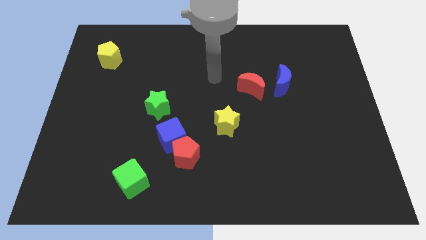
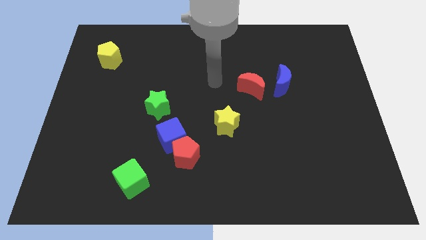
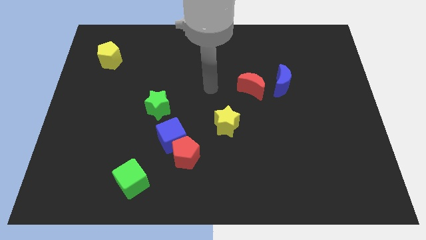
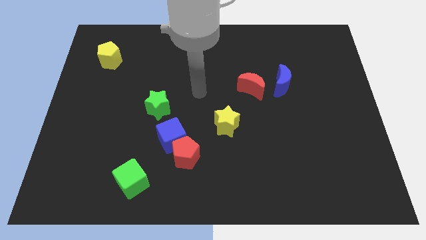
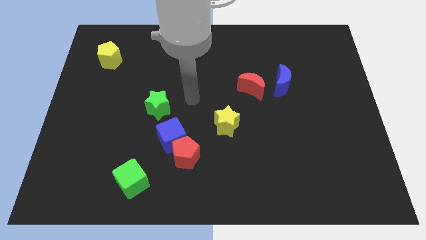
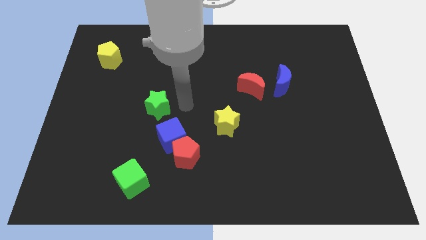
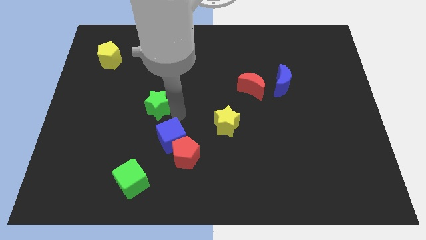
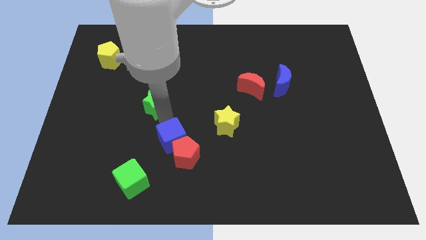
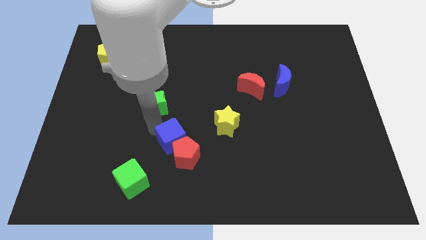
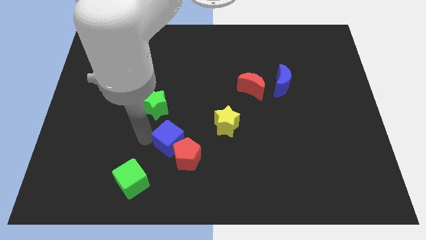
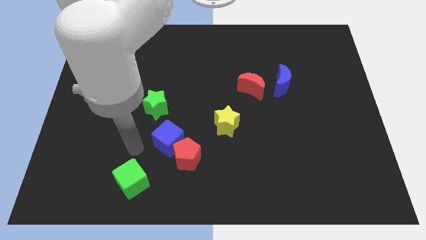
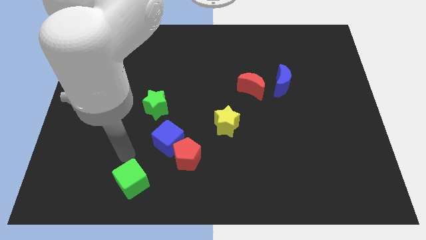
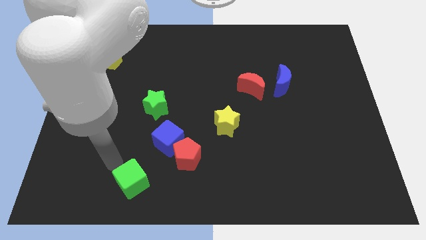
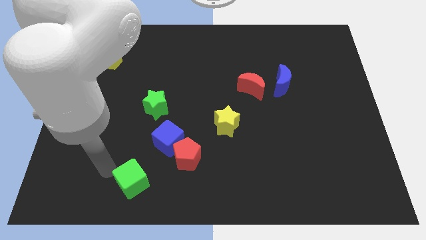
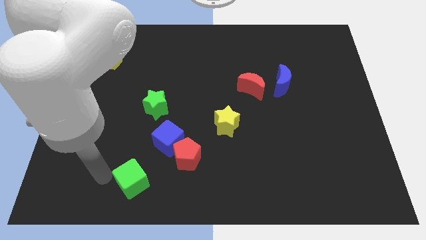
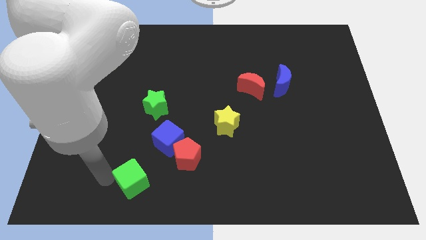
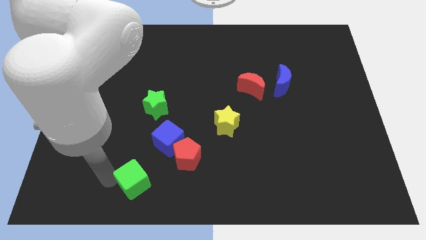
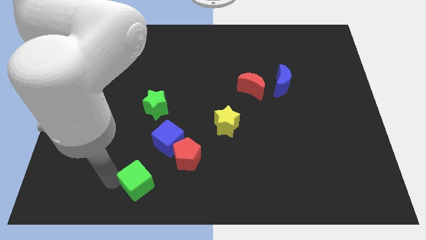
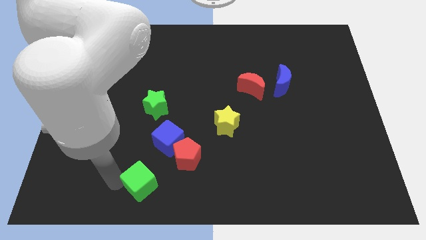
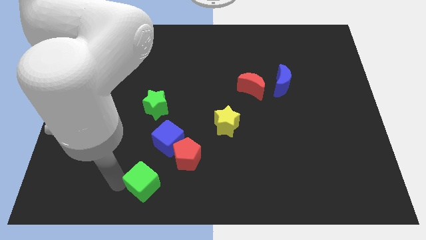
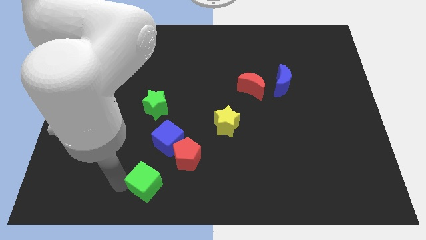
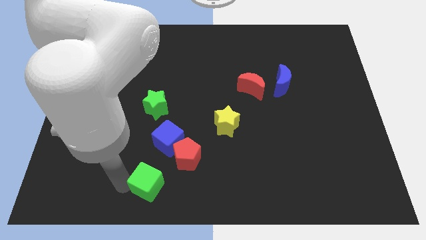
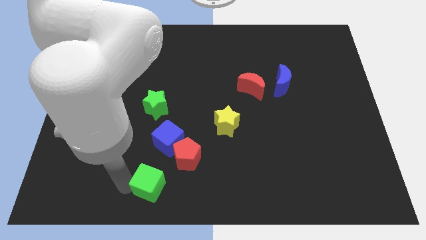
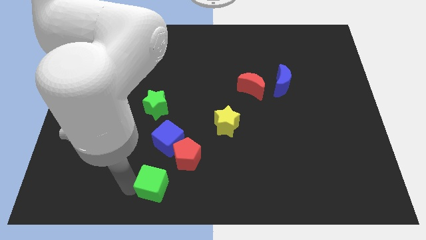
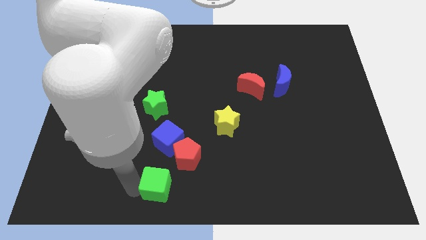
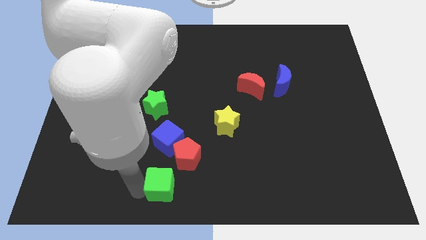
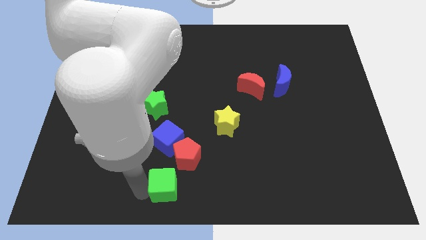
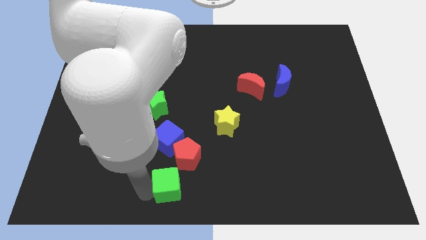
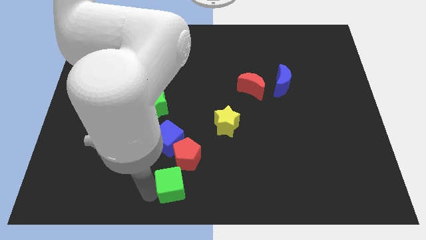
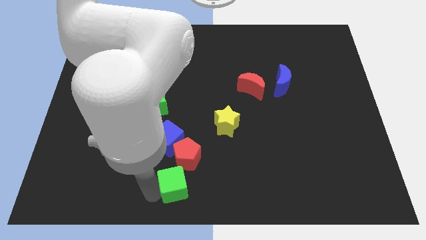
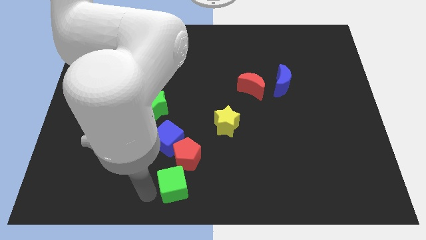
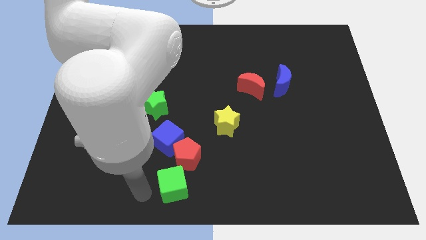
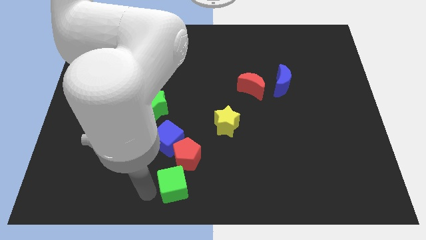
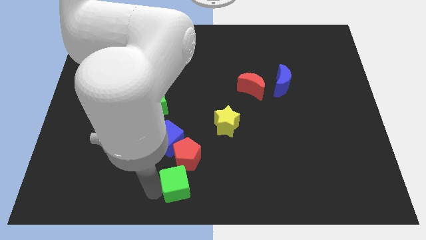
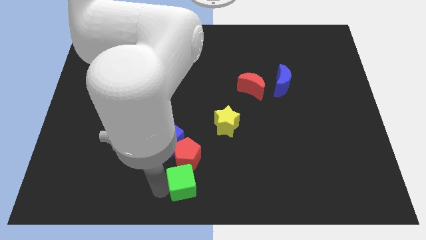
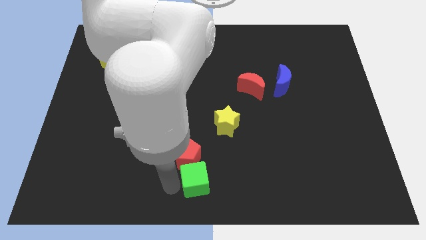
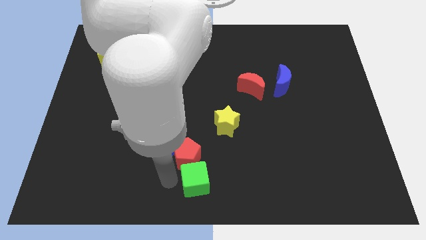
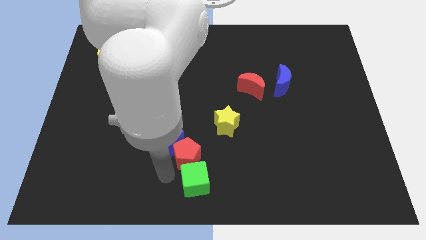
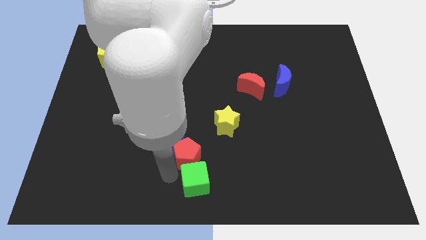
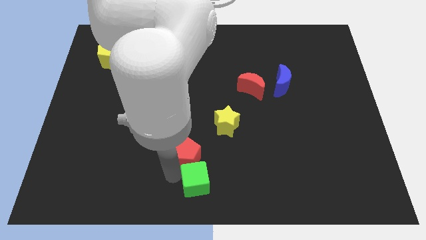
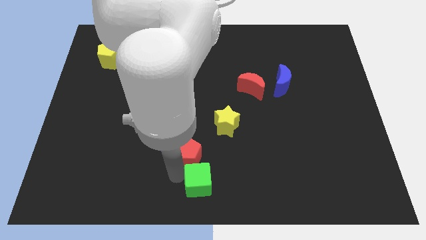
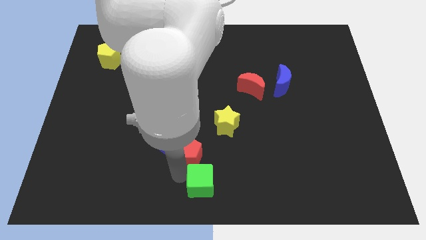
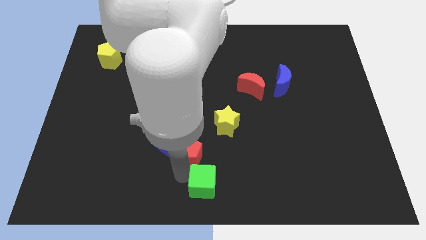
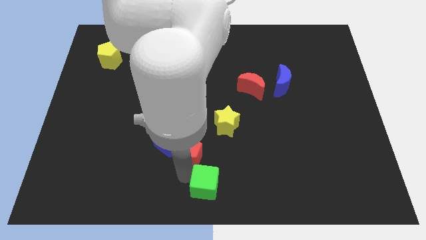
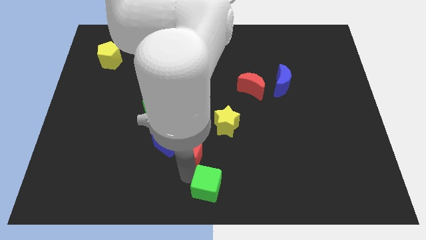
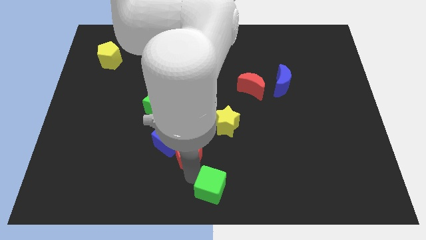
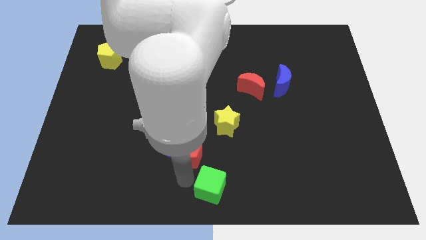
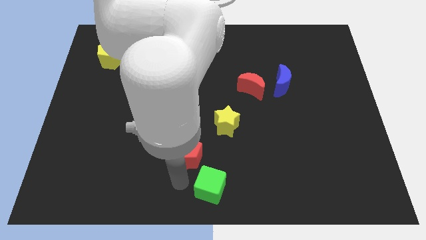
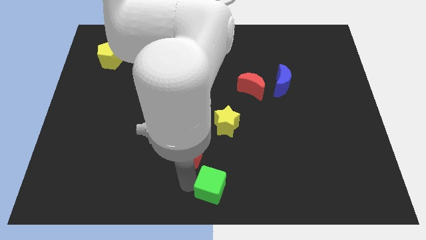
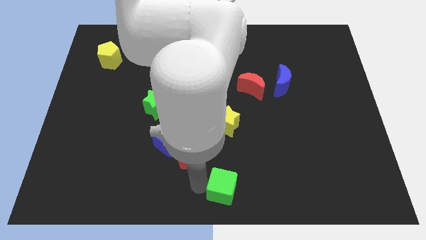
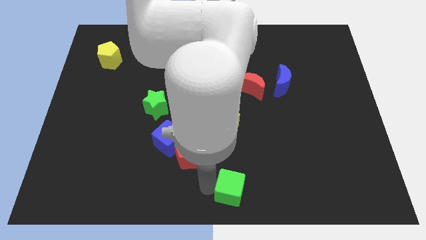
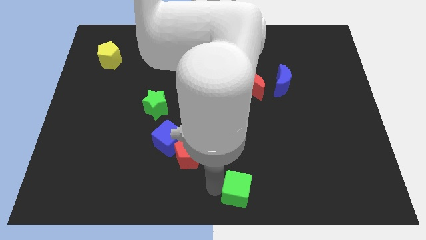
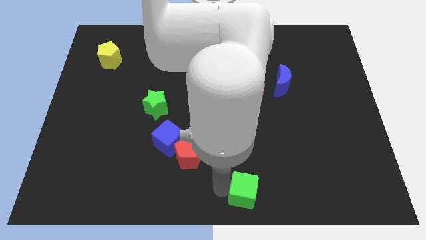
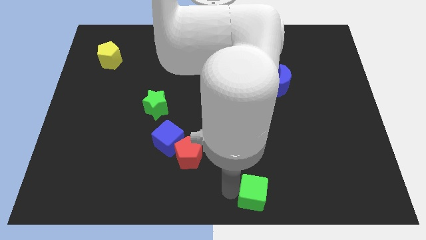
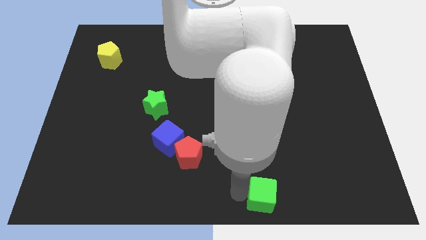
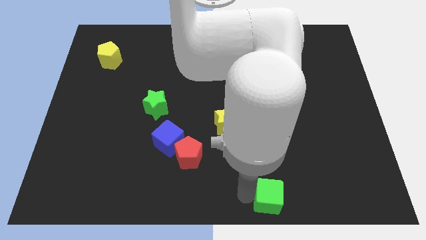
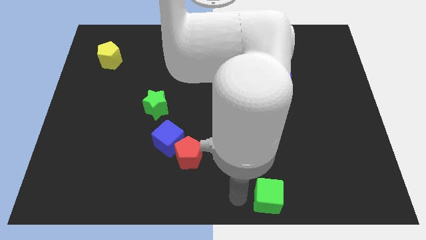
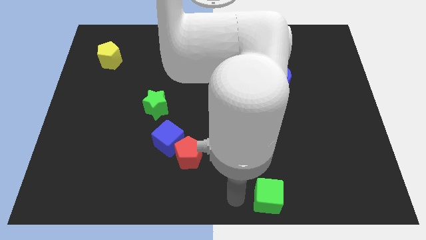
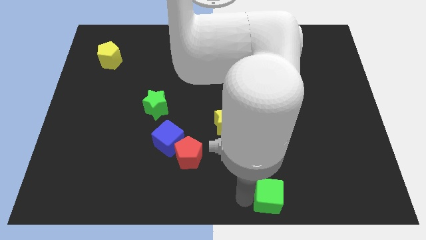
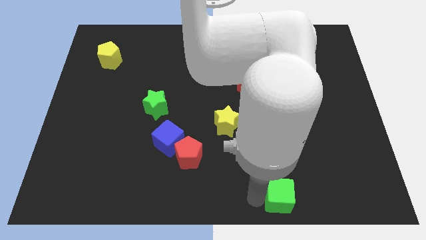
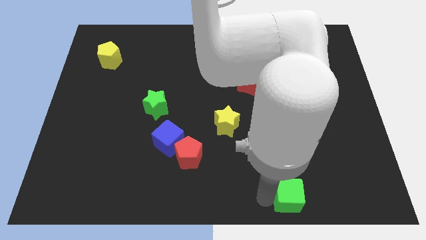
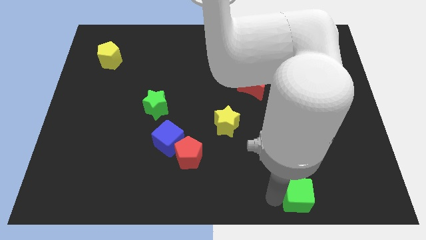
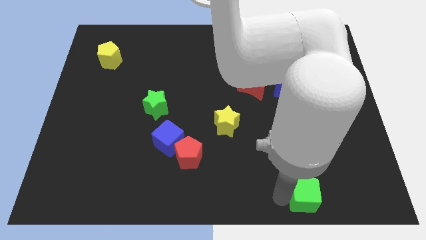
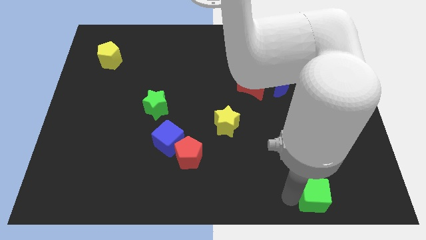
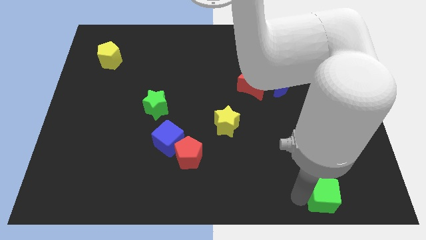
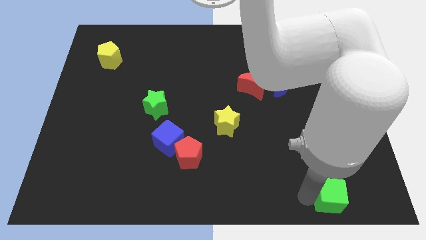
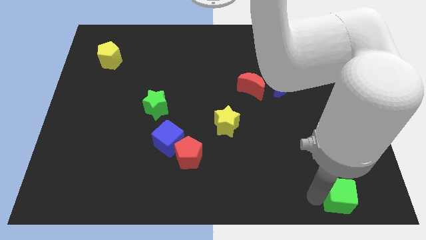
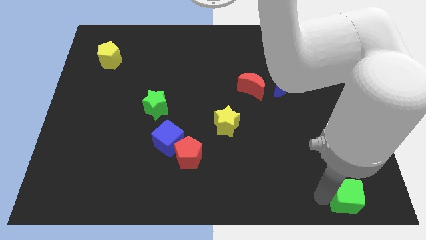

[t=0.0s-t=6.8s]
slide the green cube to the bottom right corner
